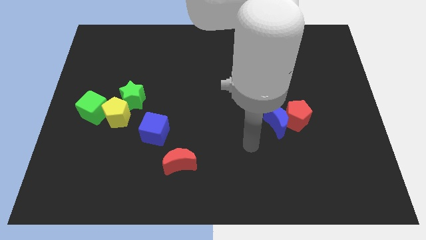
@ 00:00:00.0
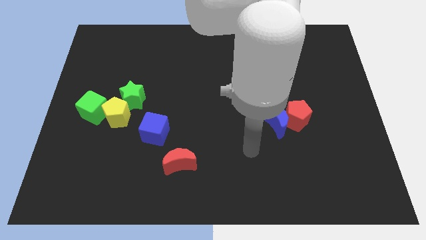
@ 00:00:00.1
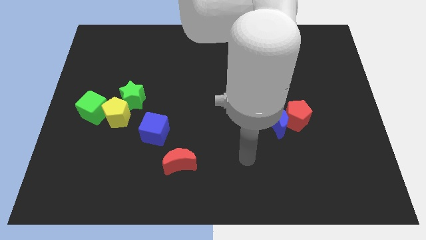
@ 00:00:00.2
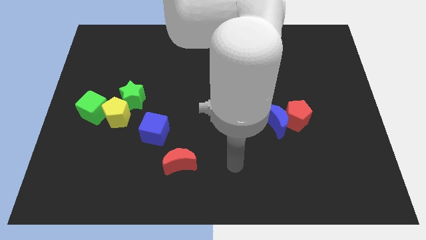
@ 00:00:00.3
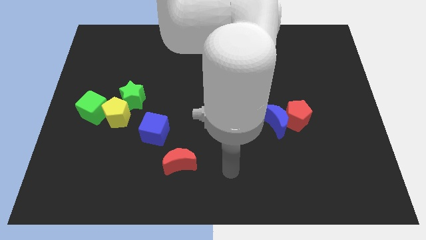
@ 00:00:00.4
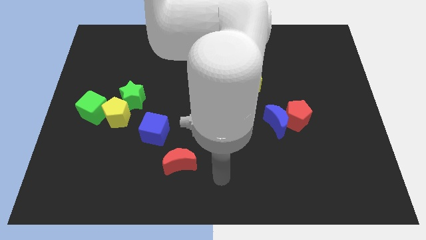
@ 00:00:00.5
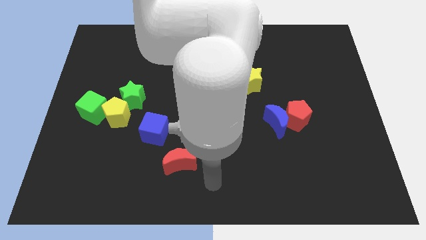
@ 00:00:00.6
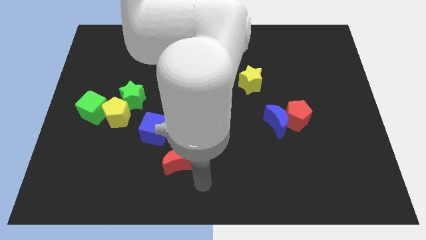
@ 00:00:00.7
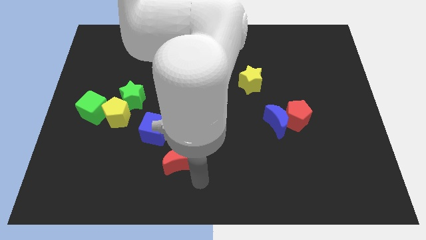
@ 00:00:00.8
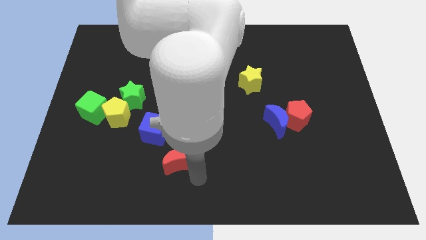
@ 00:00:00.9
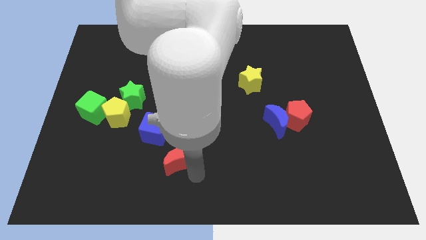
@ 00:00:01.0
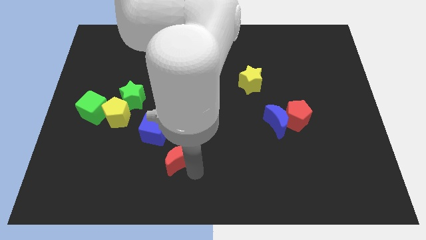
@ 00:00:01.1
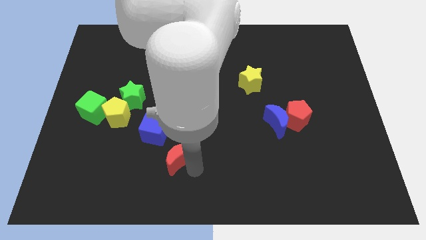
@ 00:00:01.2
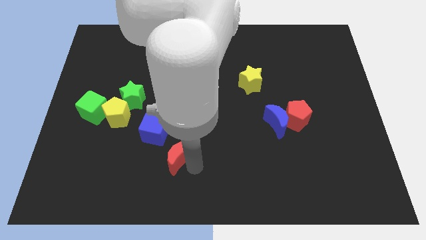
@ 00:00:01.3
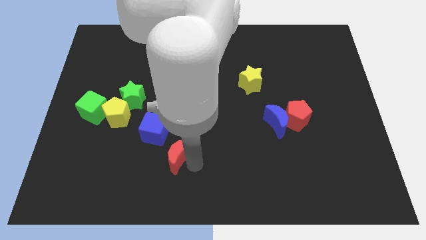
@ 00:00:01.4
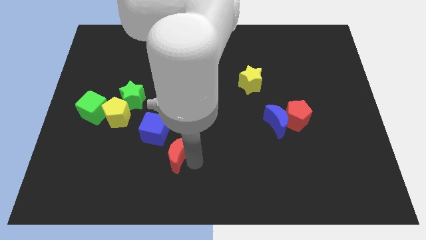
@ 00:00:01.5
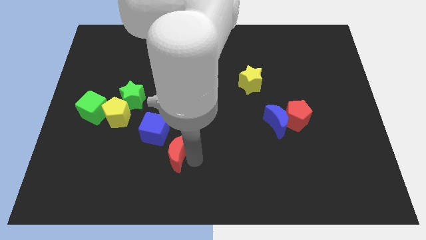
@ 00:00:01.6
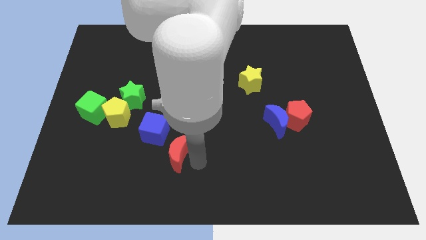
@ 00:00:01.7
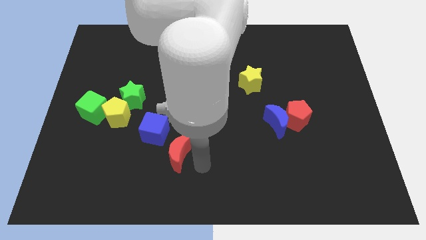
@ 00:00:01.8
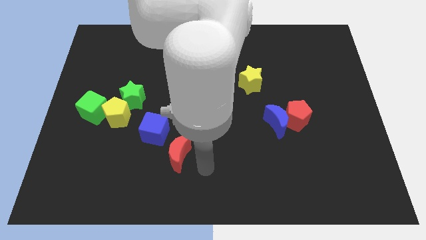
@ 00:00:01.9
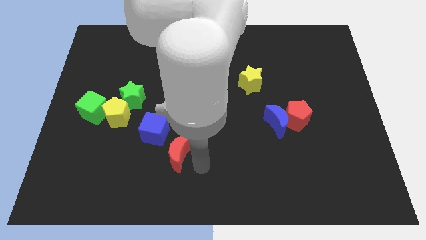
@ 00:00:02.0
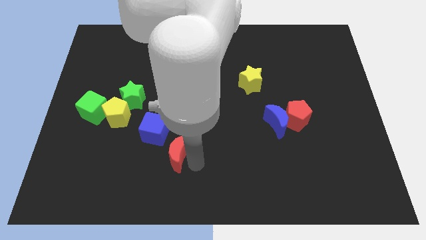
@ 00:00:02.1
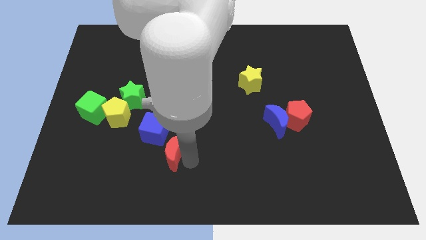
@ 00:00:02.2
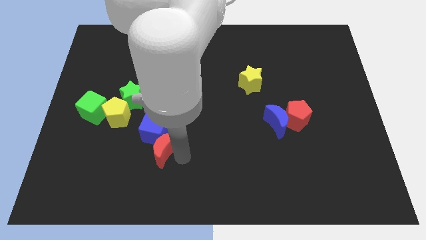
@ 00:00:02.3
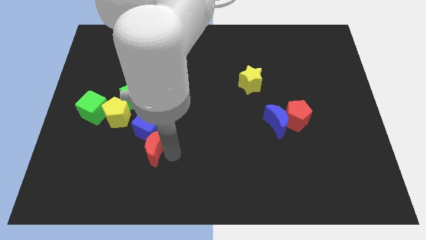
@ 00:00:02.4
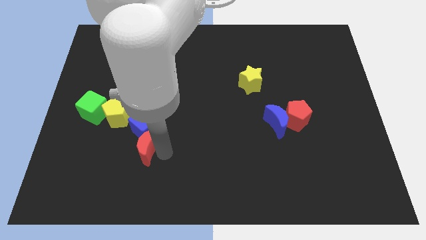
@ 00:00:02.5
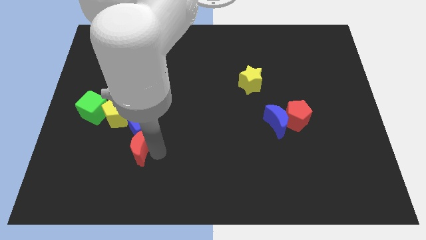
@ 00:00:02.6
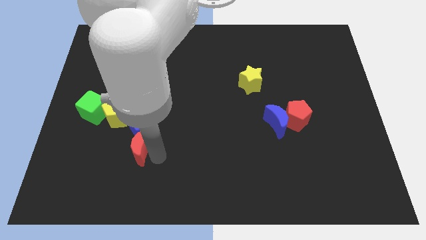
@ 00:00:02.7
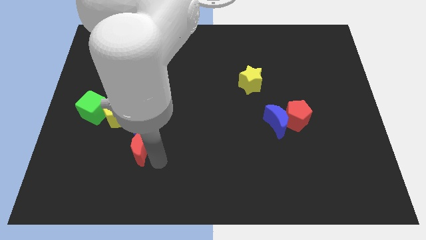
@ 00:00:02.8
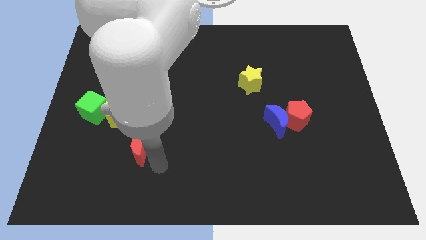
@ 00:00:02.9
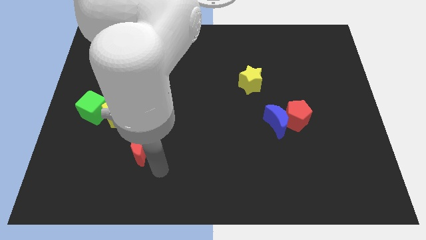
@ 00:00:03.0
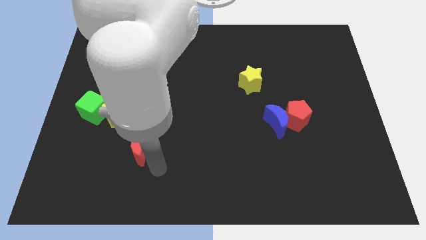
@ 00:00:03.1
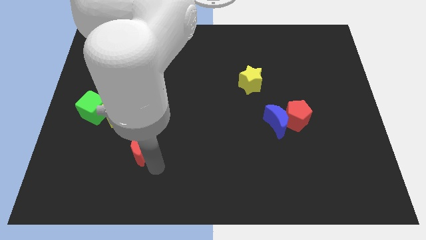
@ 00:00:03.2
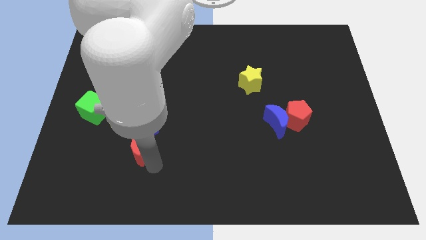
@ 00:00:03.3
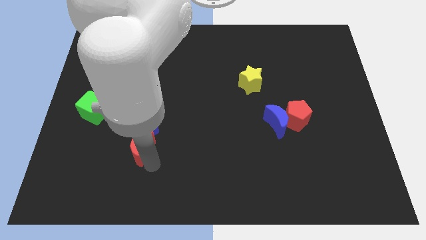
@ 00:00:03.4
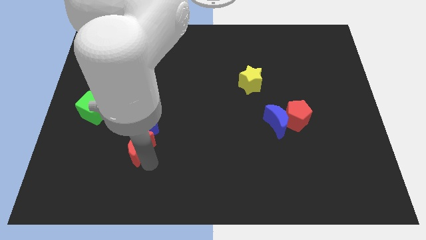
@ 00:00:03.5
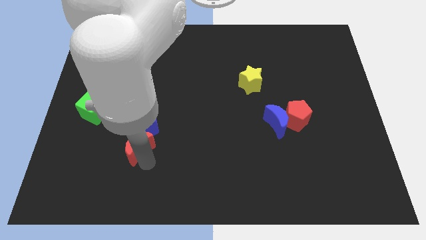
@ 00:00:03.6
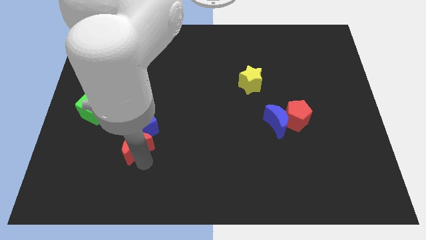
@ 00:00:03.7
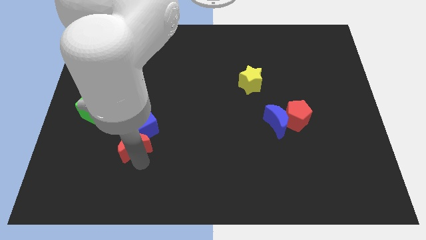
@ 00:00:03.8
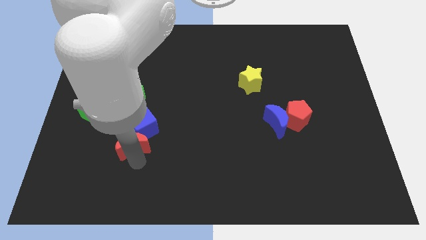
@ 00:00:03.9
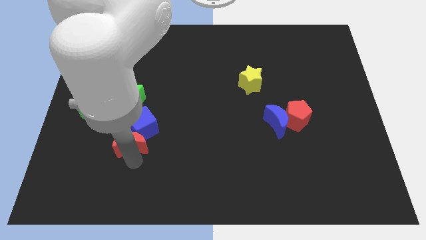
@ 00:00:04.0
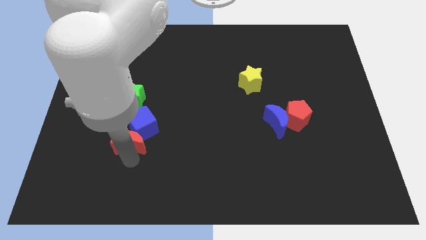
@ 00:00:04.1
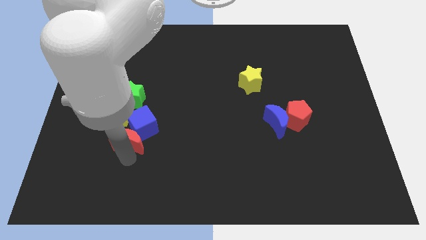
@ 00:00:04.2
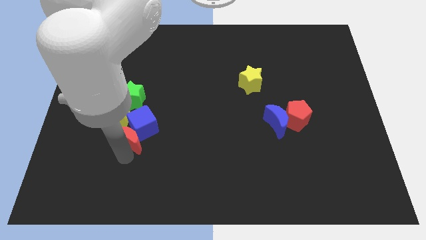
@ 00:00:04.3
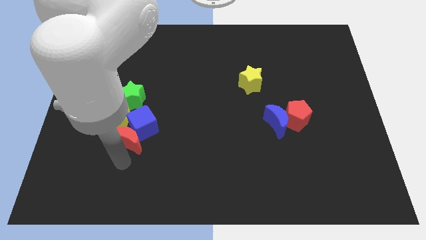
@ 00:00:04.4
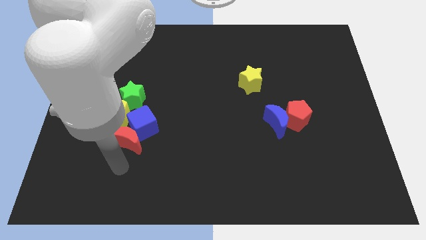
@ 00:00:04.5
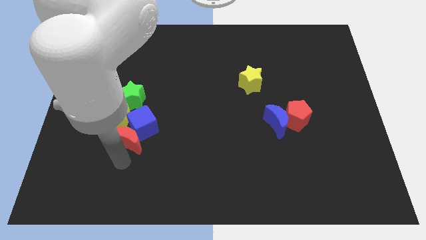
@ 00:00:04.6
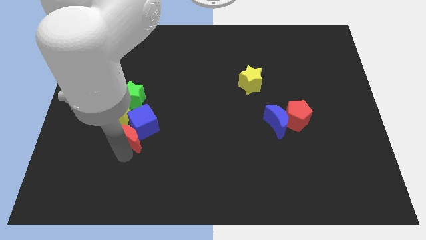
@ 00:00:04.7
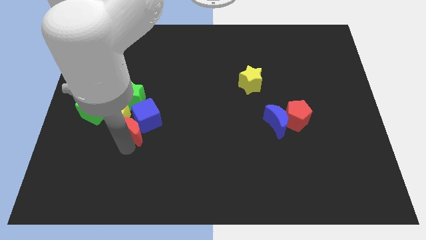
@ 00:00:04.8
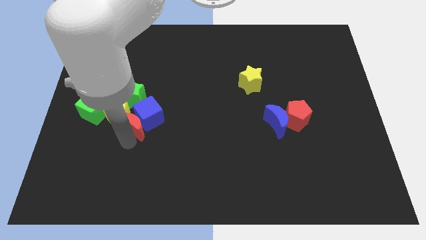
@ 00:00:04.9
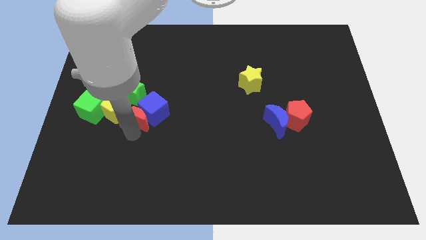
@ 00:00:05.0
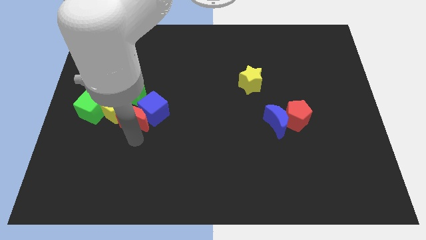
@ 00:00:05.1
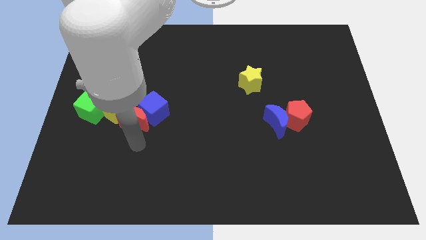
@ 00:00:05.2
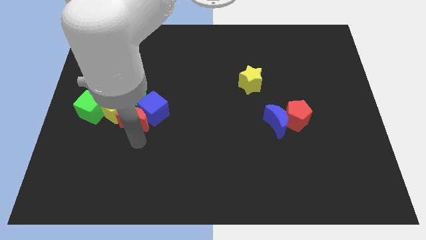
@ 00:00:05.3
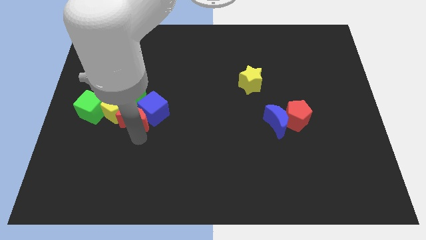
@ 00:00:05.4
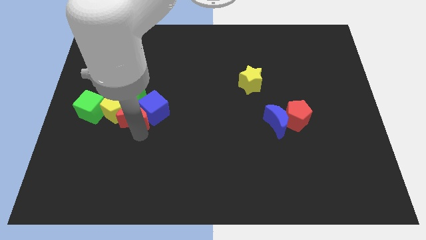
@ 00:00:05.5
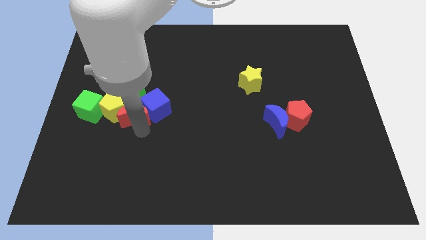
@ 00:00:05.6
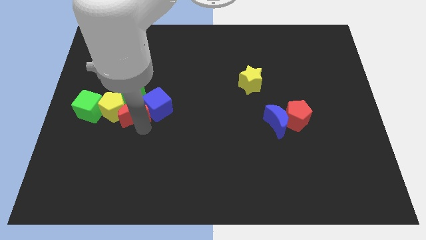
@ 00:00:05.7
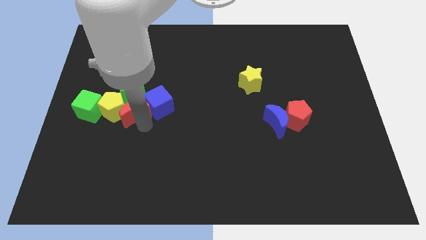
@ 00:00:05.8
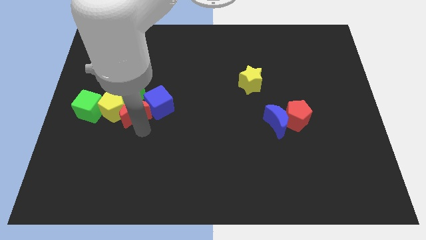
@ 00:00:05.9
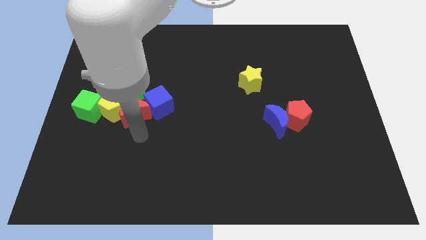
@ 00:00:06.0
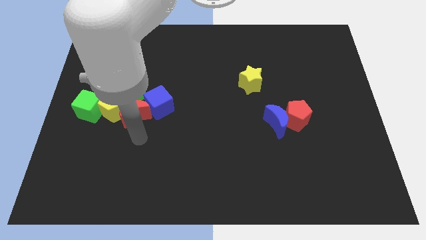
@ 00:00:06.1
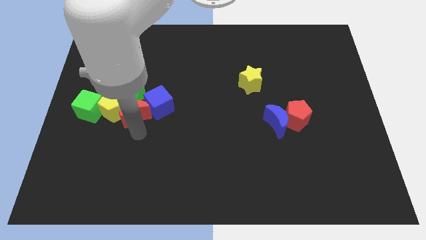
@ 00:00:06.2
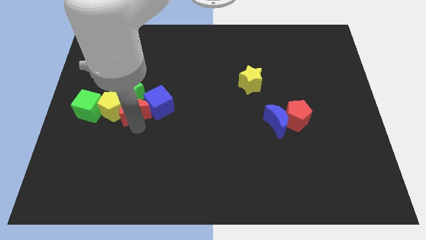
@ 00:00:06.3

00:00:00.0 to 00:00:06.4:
push the red moon towards the green star

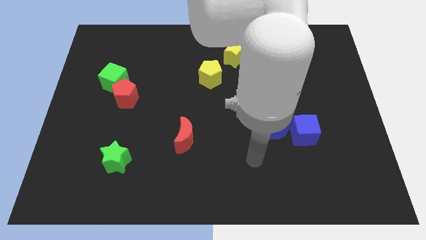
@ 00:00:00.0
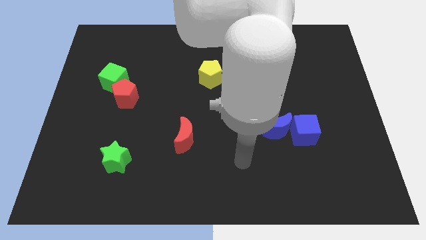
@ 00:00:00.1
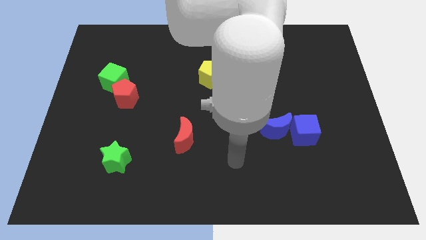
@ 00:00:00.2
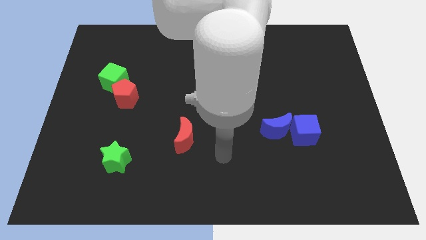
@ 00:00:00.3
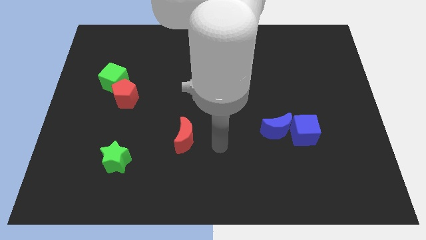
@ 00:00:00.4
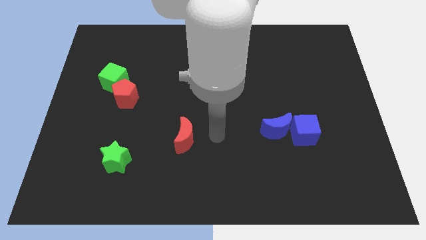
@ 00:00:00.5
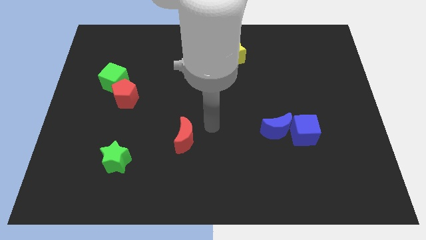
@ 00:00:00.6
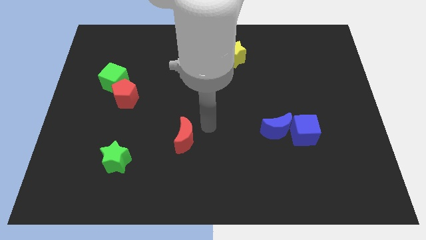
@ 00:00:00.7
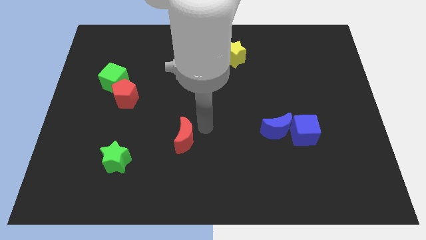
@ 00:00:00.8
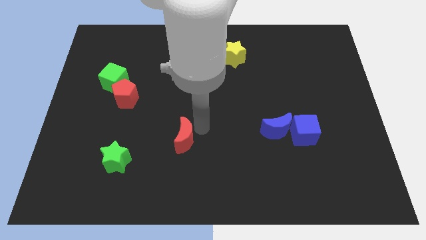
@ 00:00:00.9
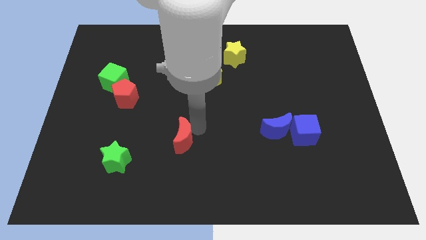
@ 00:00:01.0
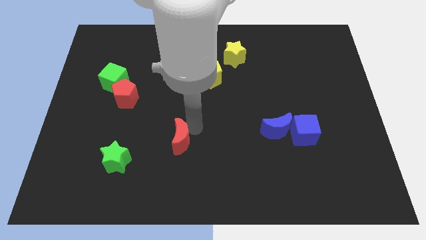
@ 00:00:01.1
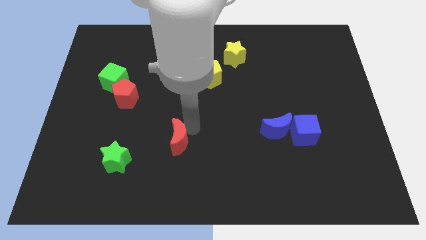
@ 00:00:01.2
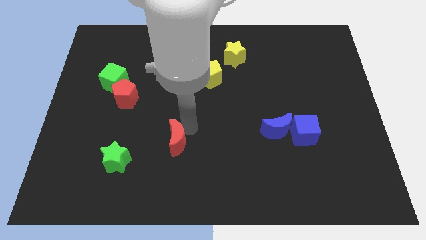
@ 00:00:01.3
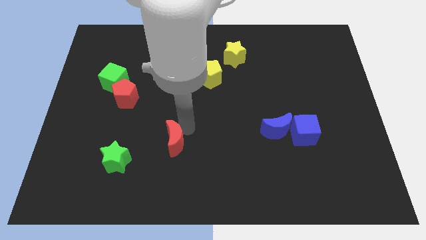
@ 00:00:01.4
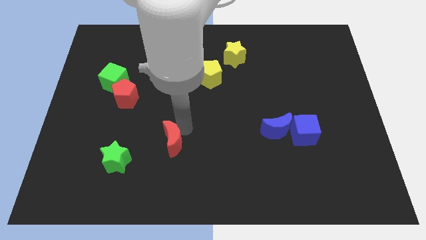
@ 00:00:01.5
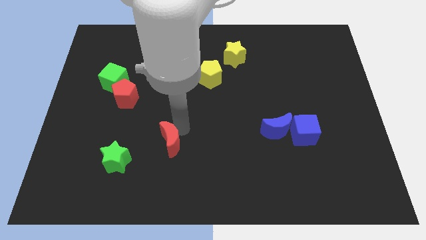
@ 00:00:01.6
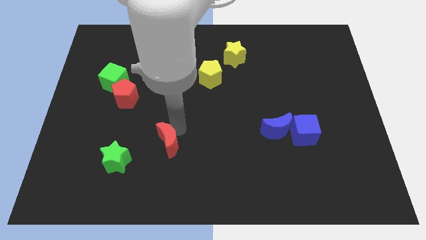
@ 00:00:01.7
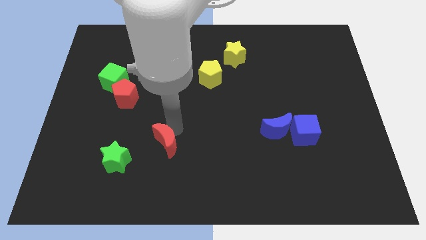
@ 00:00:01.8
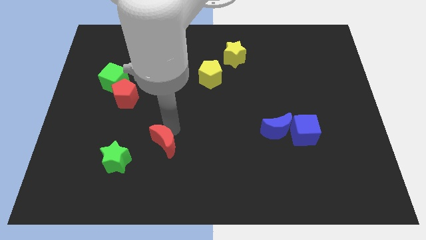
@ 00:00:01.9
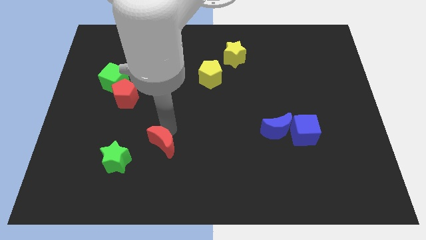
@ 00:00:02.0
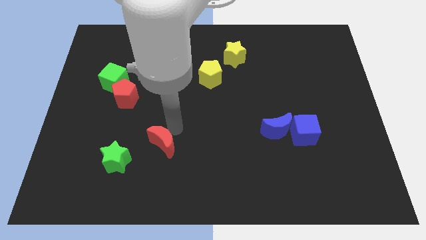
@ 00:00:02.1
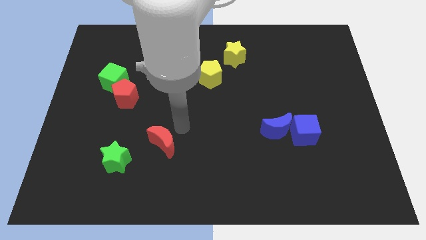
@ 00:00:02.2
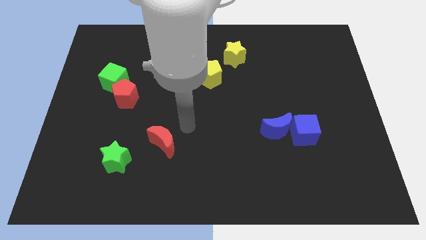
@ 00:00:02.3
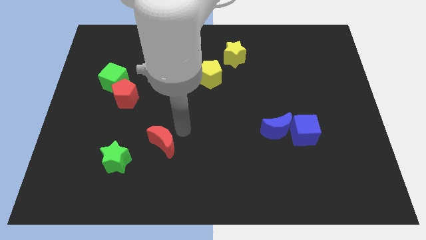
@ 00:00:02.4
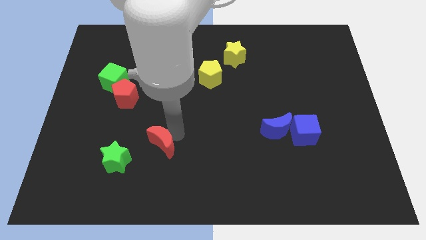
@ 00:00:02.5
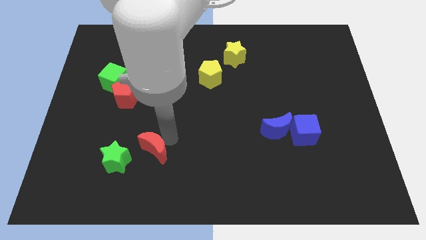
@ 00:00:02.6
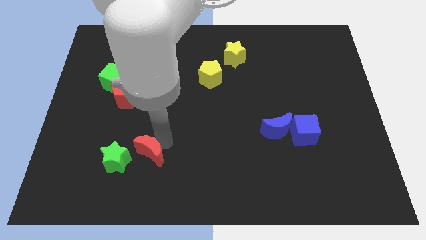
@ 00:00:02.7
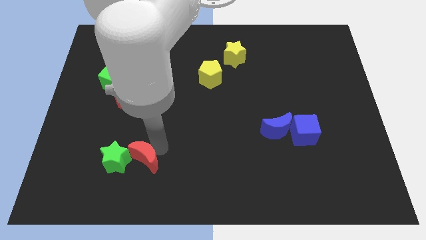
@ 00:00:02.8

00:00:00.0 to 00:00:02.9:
move the red moon to the green star
